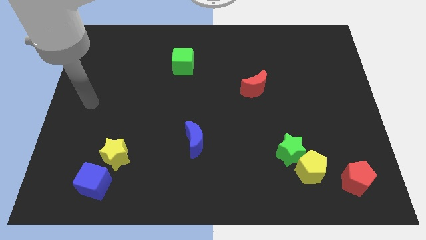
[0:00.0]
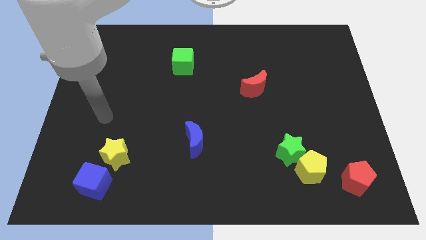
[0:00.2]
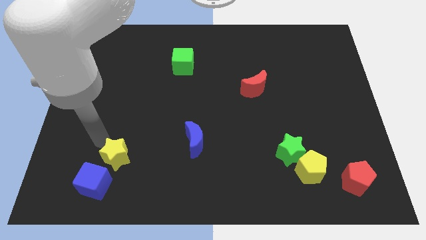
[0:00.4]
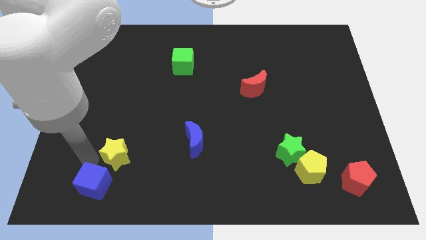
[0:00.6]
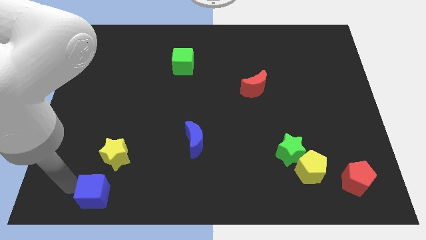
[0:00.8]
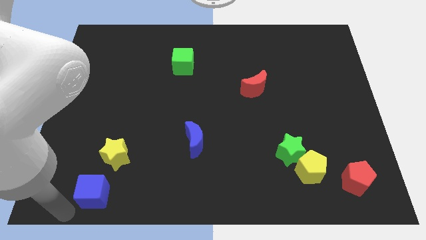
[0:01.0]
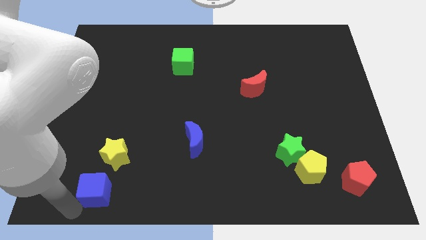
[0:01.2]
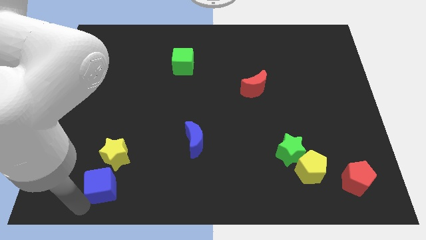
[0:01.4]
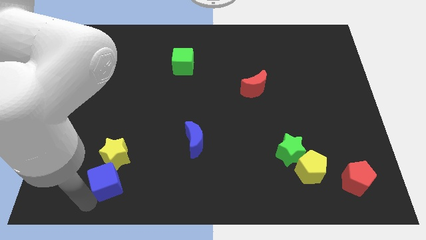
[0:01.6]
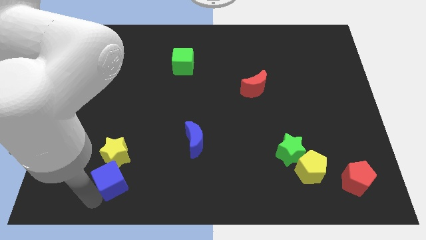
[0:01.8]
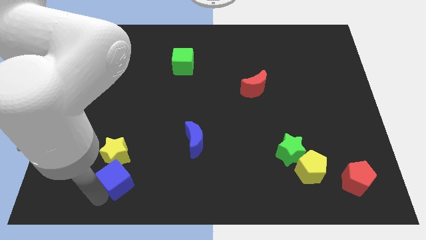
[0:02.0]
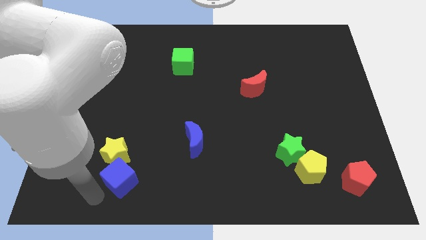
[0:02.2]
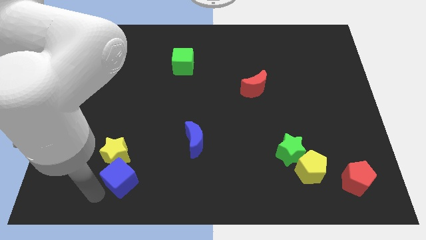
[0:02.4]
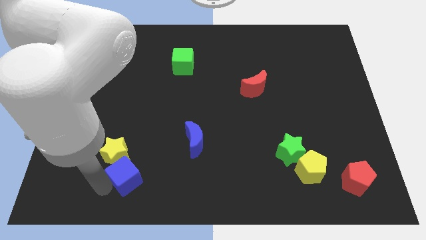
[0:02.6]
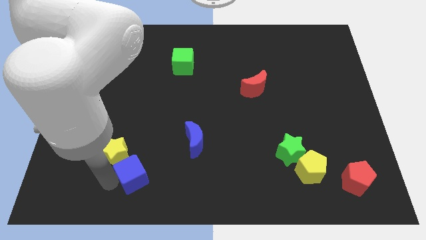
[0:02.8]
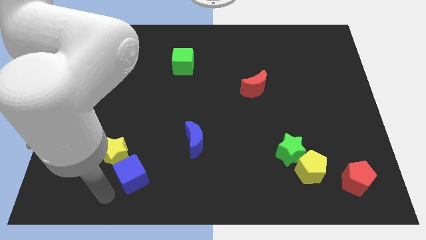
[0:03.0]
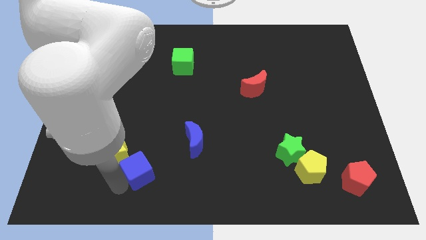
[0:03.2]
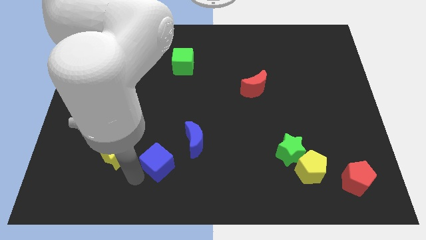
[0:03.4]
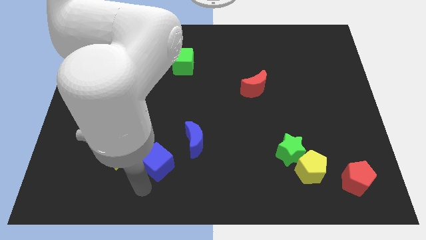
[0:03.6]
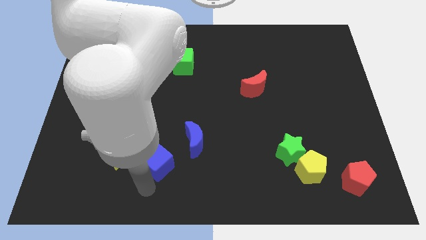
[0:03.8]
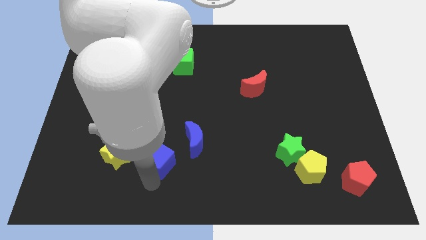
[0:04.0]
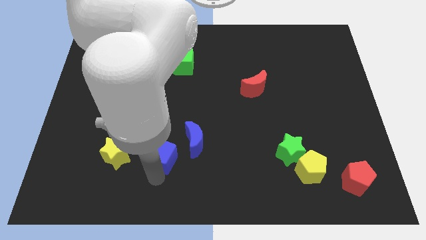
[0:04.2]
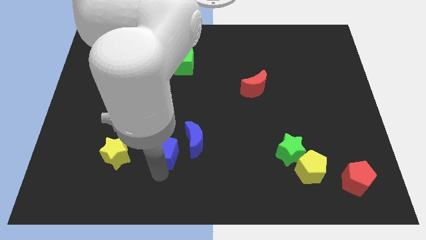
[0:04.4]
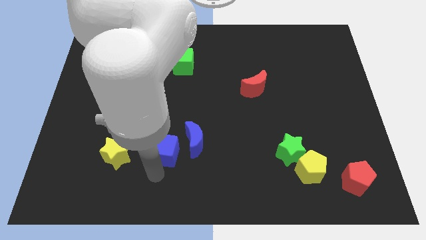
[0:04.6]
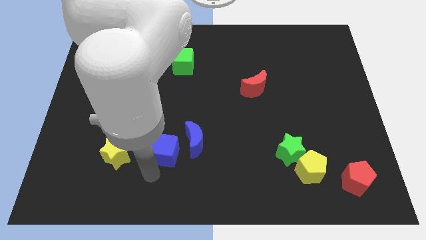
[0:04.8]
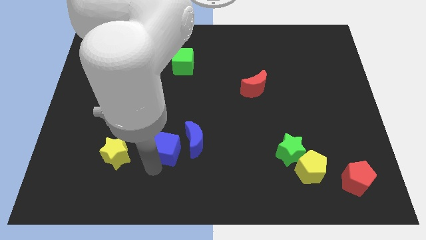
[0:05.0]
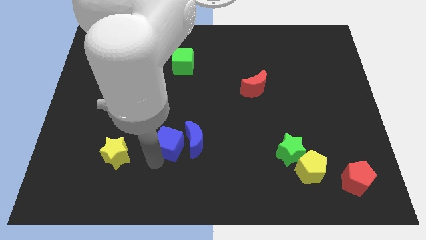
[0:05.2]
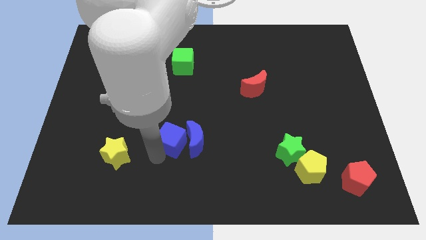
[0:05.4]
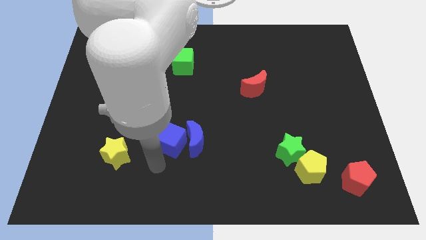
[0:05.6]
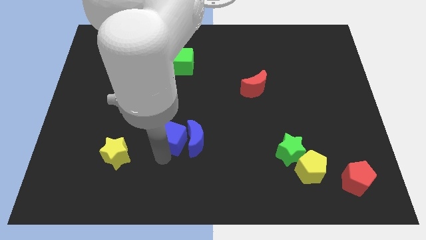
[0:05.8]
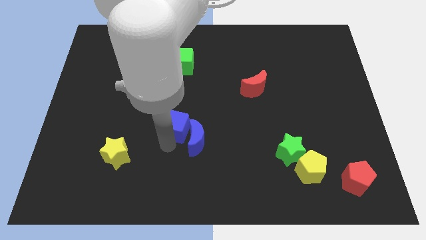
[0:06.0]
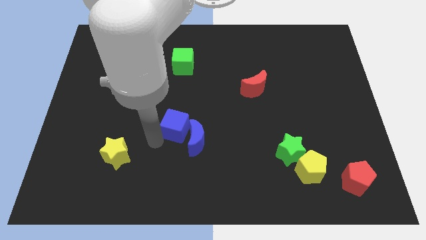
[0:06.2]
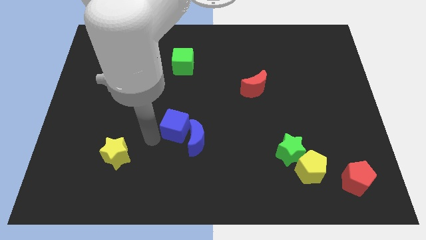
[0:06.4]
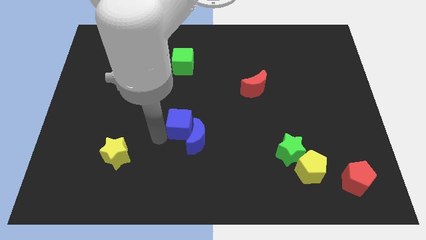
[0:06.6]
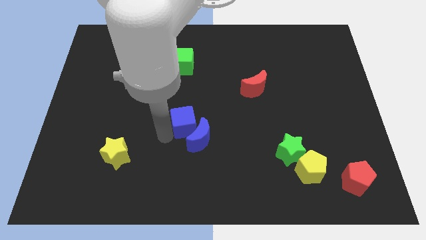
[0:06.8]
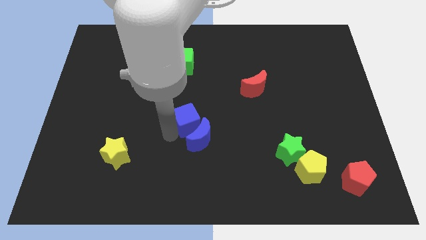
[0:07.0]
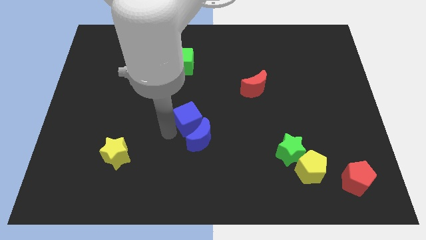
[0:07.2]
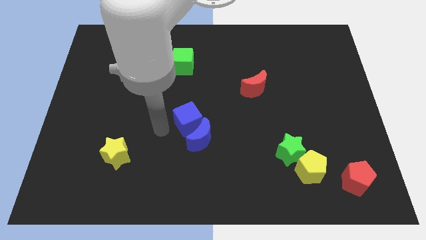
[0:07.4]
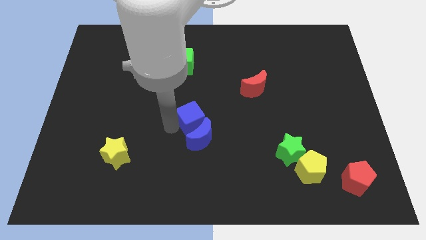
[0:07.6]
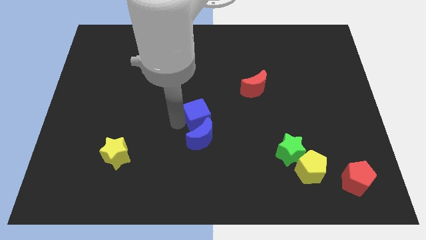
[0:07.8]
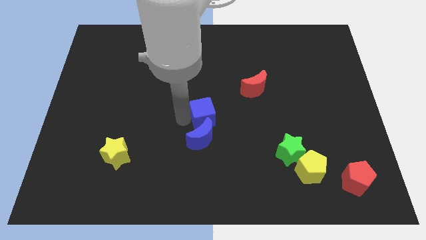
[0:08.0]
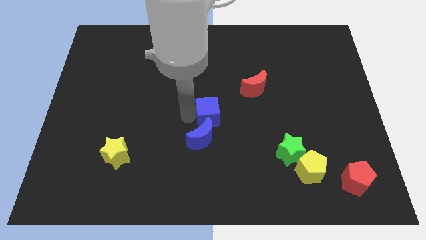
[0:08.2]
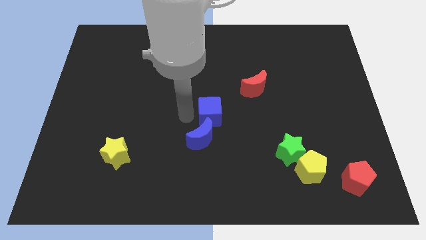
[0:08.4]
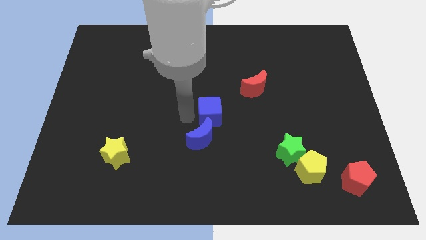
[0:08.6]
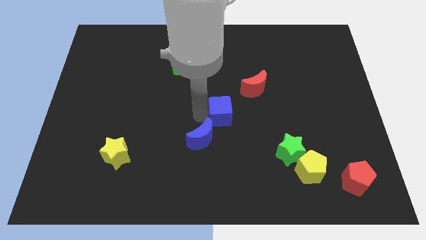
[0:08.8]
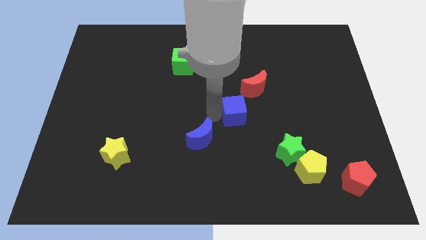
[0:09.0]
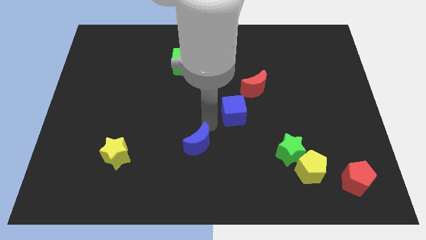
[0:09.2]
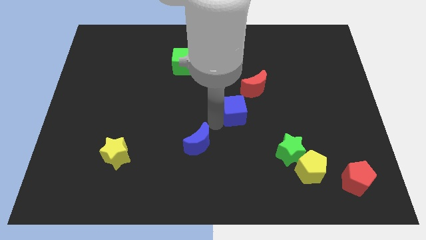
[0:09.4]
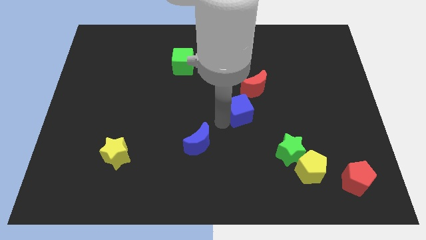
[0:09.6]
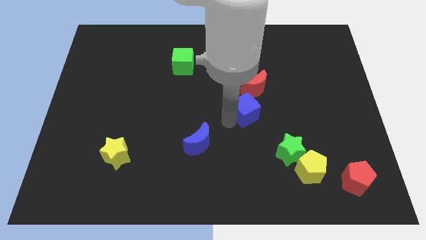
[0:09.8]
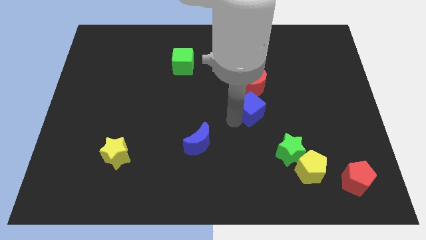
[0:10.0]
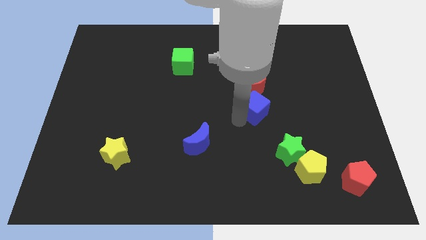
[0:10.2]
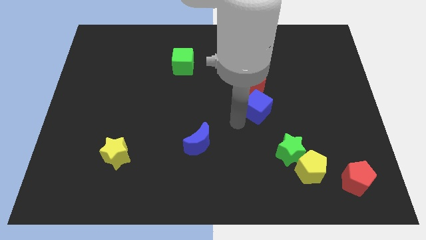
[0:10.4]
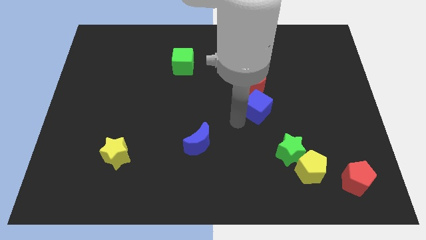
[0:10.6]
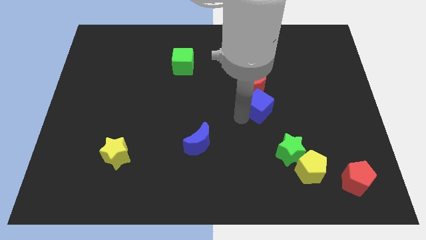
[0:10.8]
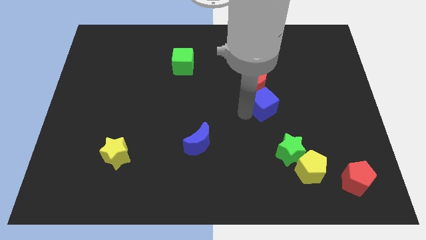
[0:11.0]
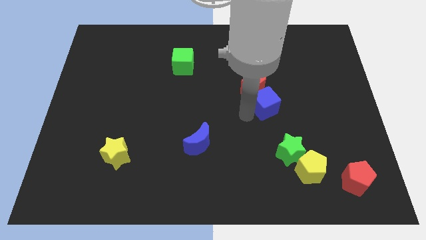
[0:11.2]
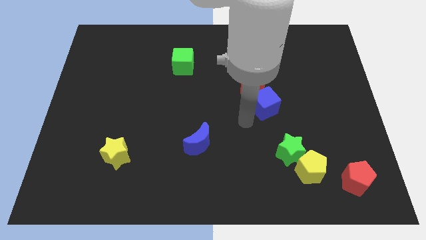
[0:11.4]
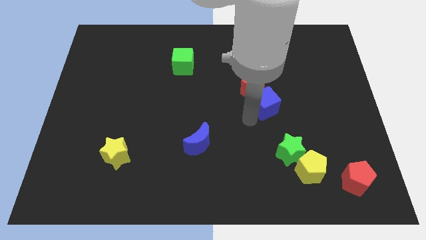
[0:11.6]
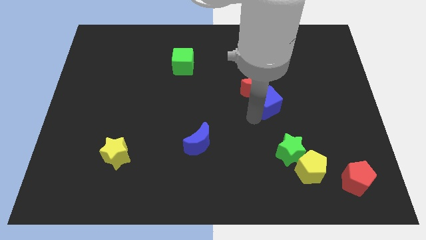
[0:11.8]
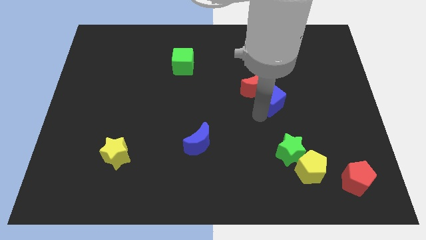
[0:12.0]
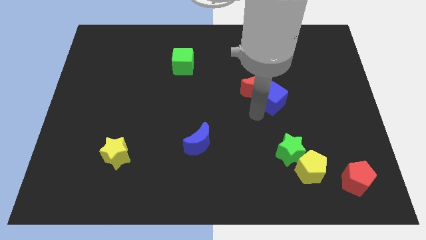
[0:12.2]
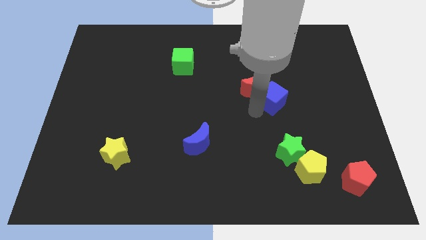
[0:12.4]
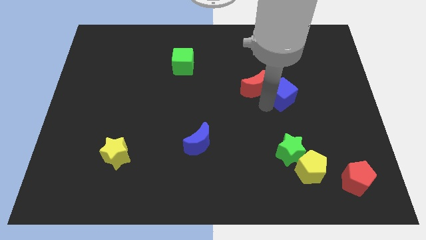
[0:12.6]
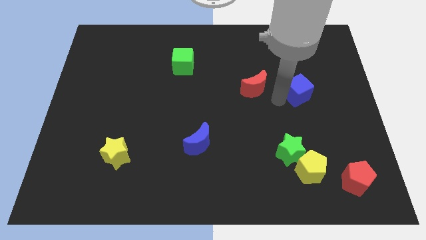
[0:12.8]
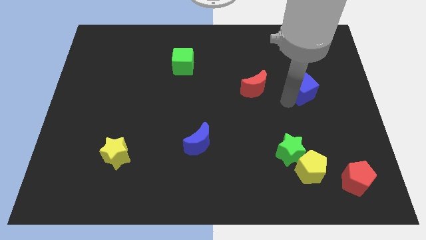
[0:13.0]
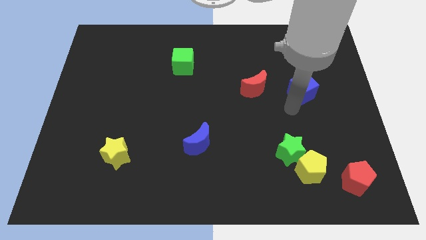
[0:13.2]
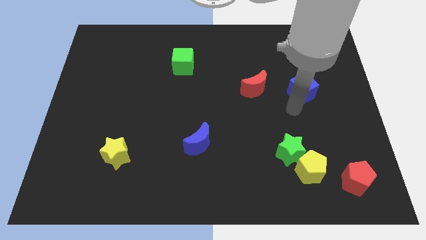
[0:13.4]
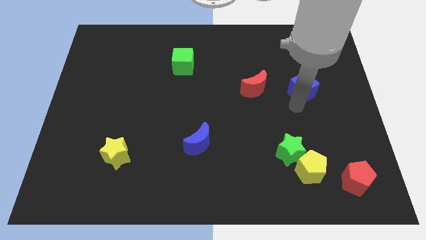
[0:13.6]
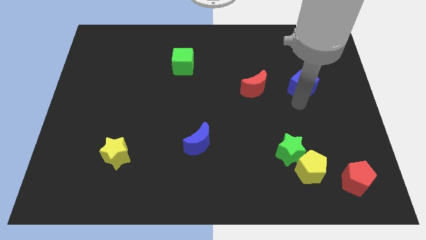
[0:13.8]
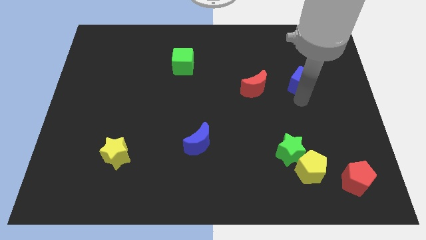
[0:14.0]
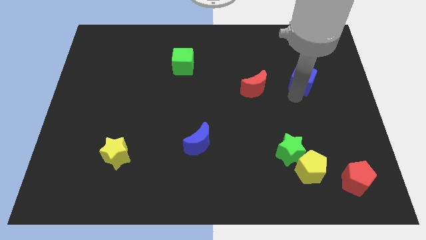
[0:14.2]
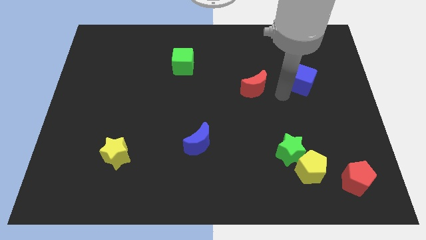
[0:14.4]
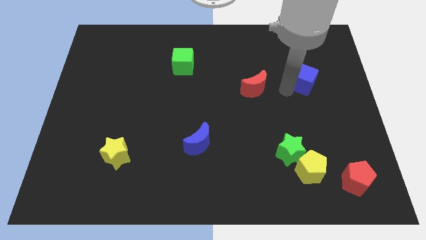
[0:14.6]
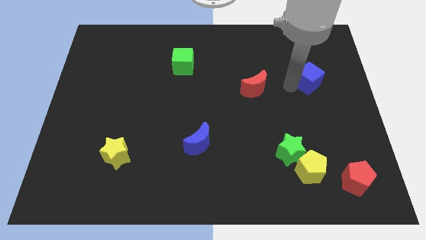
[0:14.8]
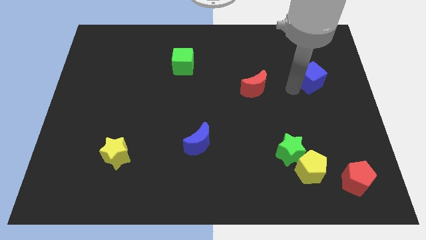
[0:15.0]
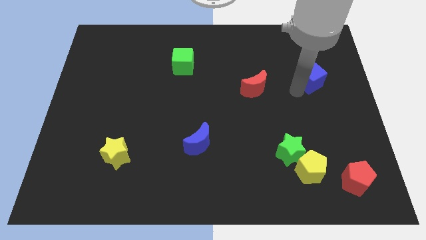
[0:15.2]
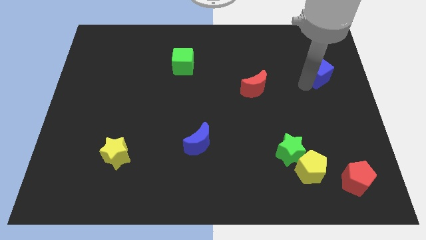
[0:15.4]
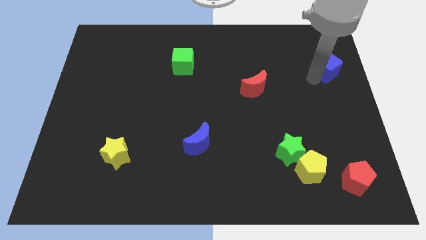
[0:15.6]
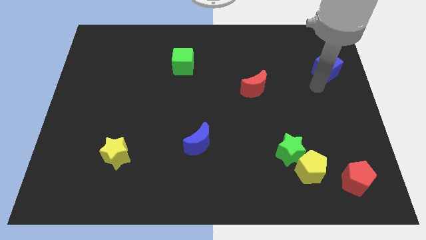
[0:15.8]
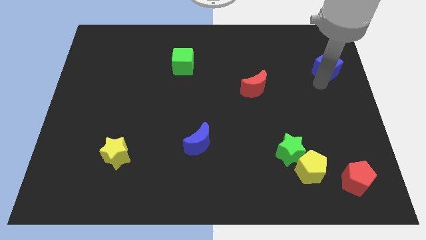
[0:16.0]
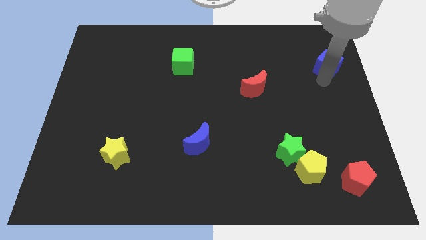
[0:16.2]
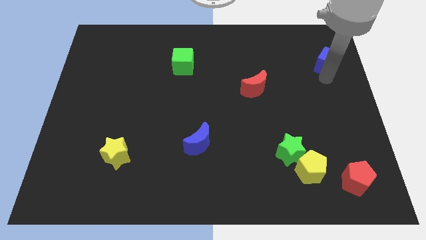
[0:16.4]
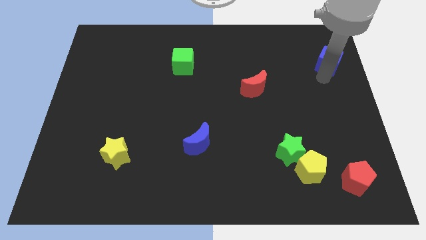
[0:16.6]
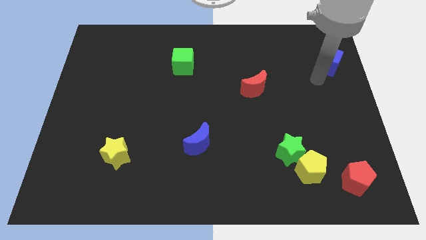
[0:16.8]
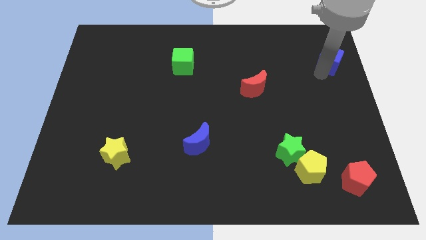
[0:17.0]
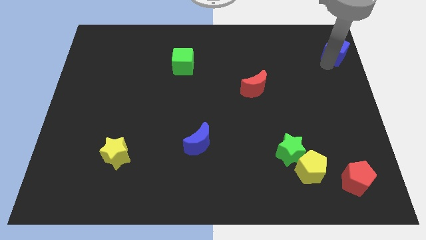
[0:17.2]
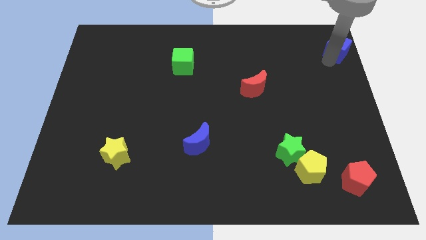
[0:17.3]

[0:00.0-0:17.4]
push the blue cube to the top right
